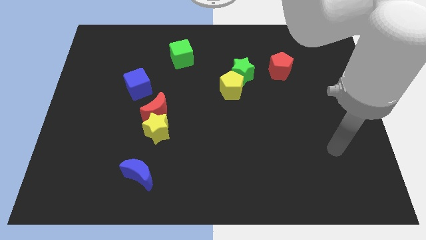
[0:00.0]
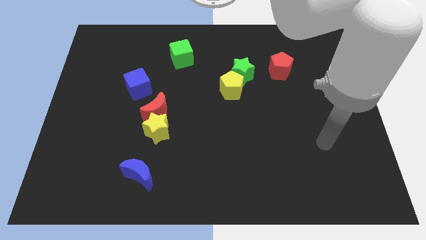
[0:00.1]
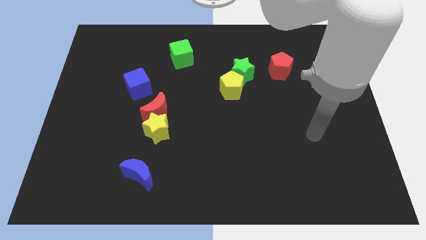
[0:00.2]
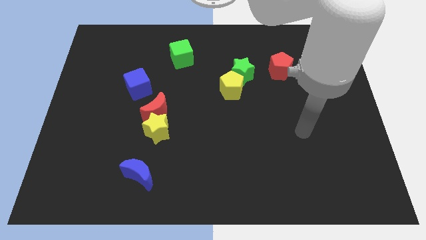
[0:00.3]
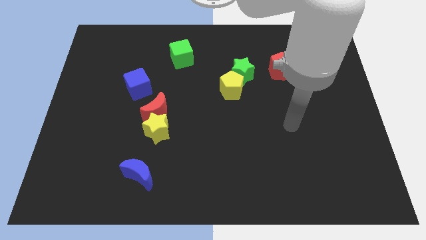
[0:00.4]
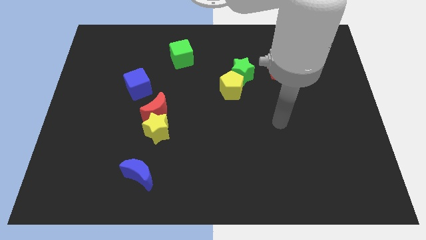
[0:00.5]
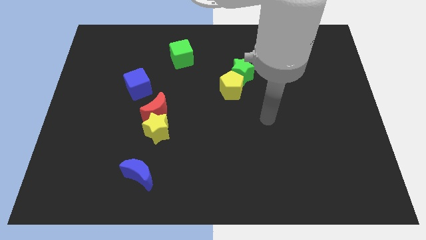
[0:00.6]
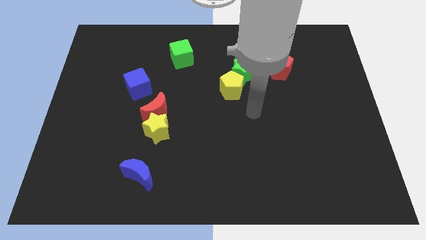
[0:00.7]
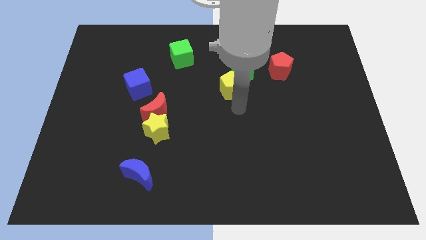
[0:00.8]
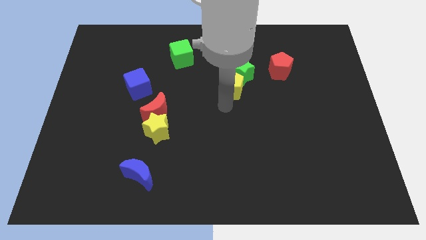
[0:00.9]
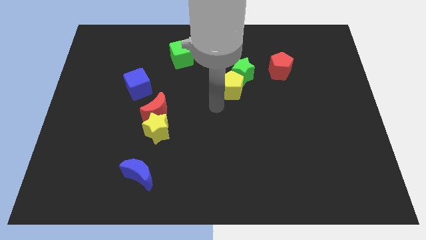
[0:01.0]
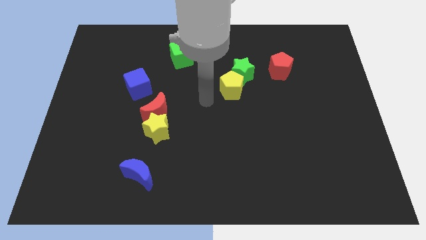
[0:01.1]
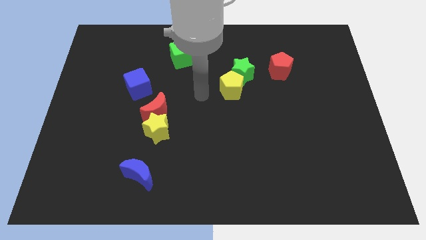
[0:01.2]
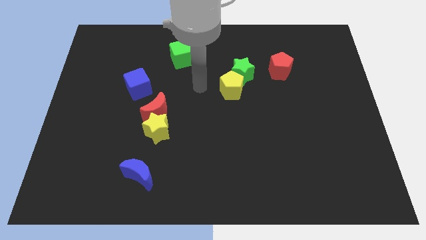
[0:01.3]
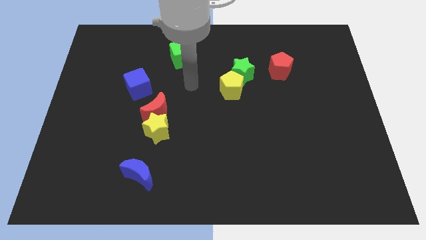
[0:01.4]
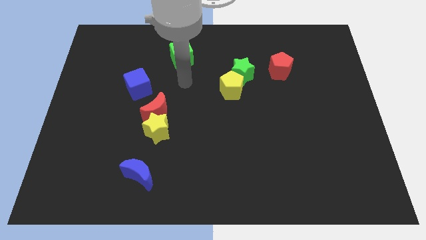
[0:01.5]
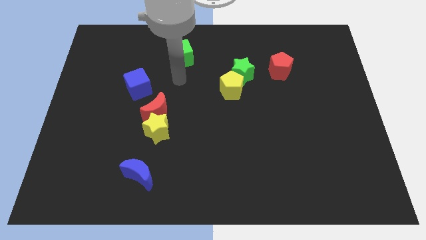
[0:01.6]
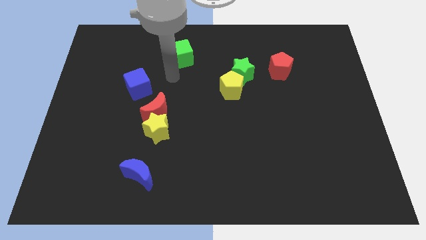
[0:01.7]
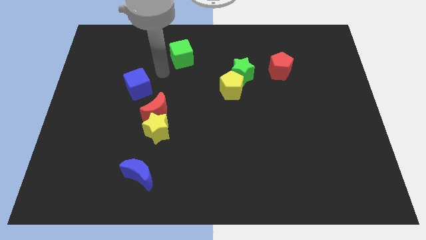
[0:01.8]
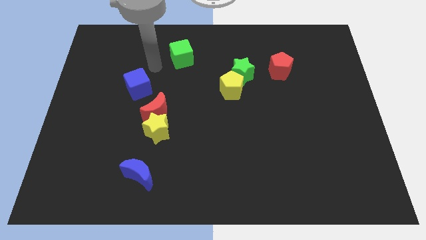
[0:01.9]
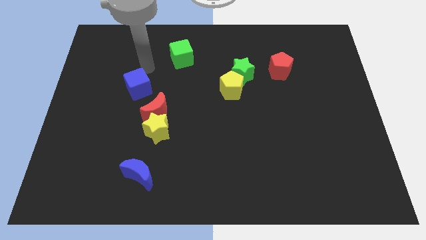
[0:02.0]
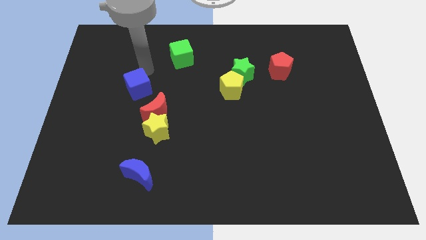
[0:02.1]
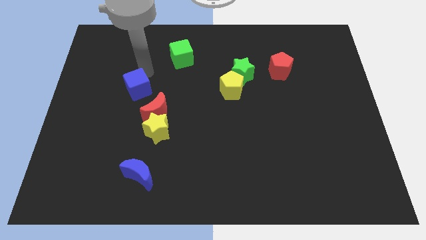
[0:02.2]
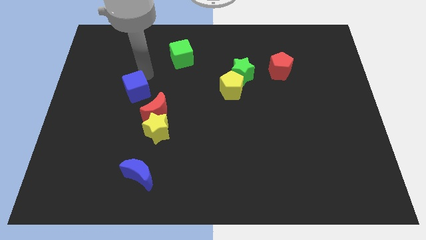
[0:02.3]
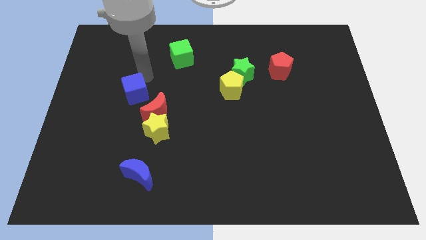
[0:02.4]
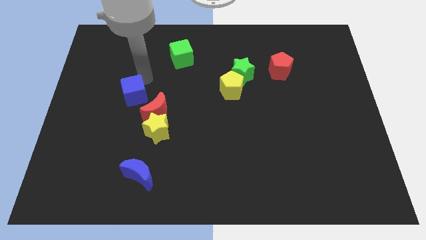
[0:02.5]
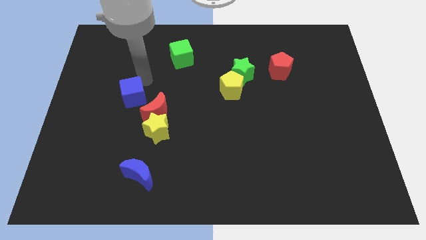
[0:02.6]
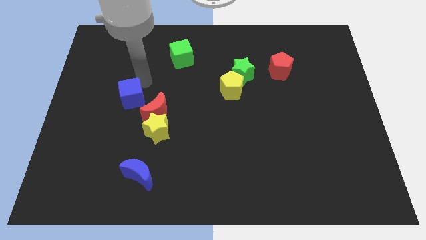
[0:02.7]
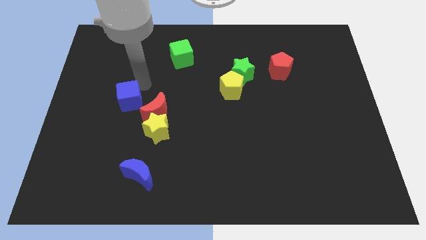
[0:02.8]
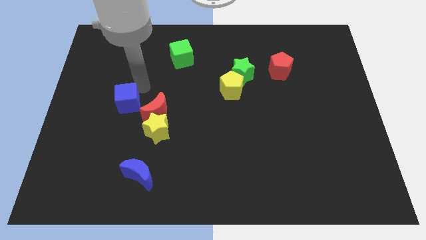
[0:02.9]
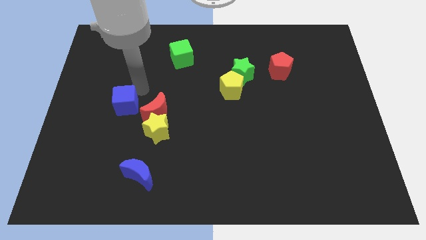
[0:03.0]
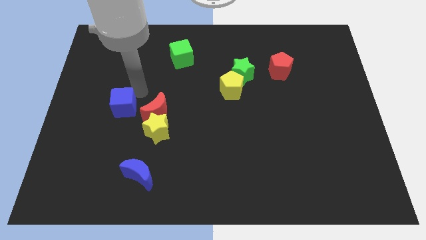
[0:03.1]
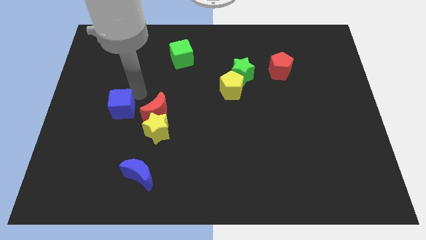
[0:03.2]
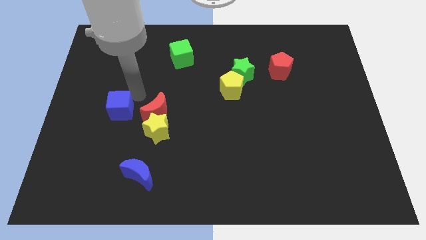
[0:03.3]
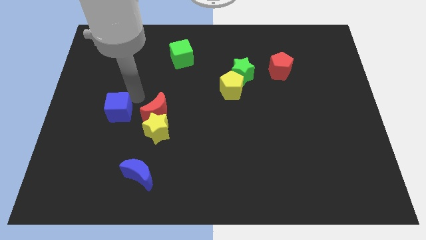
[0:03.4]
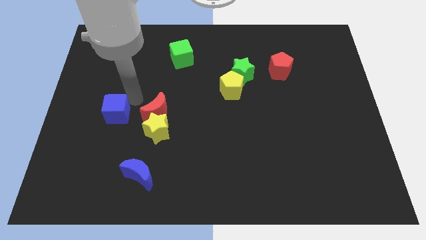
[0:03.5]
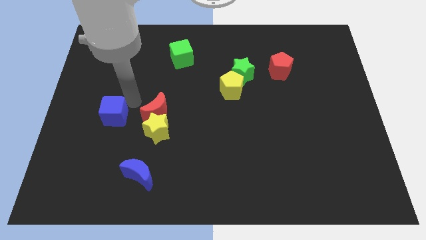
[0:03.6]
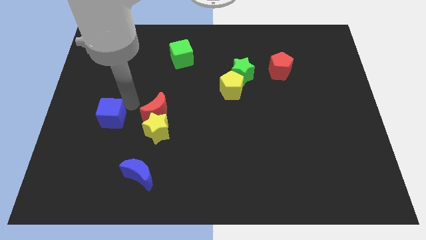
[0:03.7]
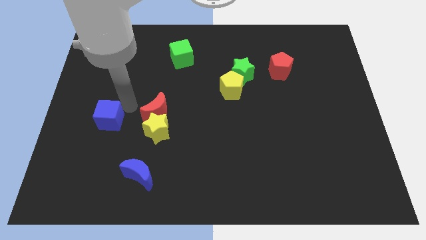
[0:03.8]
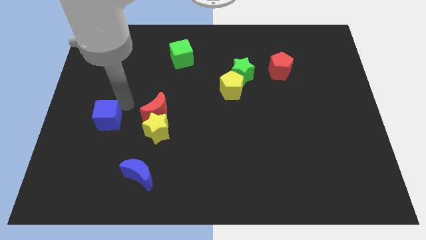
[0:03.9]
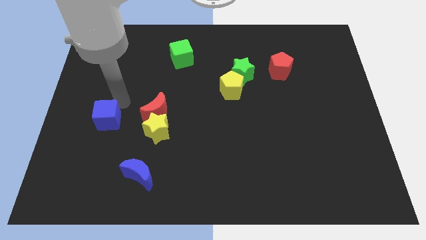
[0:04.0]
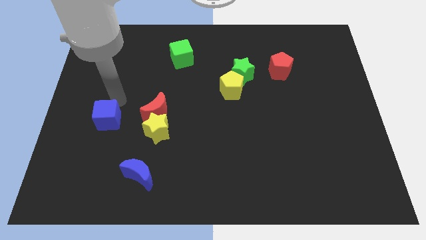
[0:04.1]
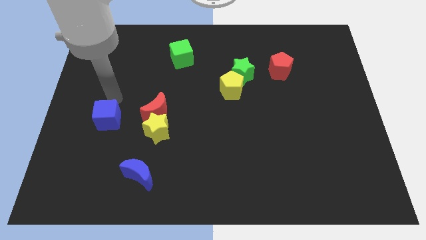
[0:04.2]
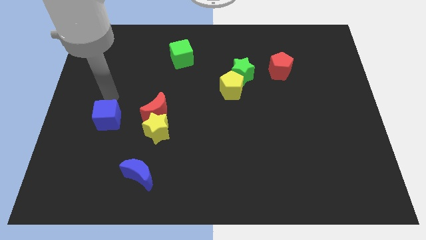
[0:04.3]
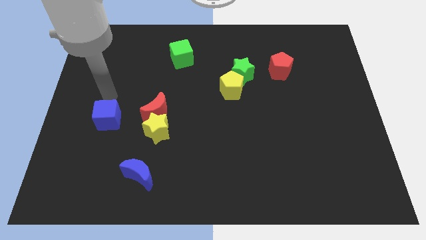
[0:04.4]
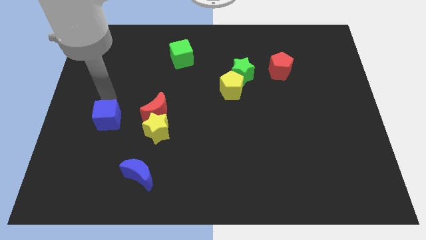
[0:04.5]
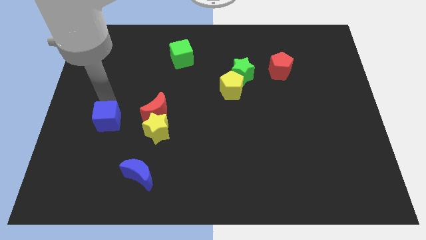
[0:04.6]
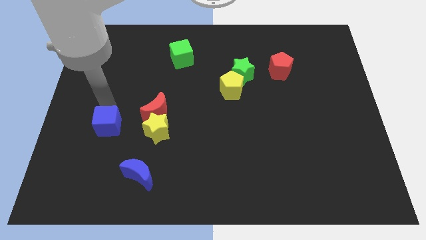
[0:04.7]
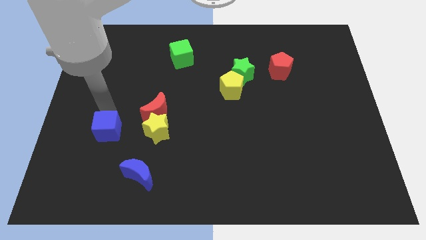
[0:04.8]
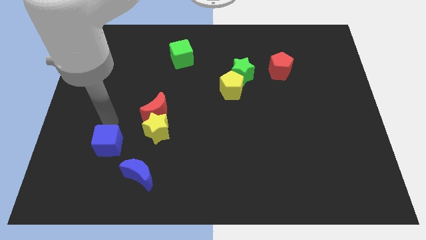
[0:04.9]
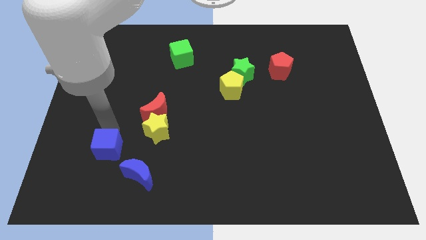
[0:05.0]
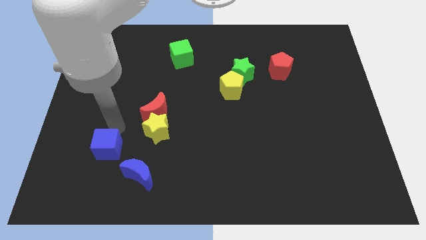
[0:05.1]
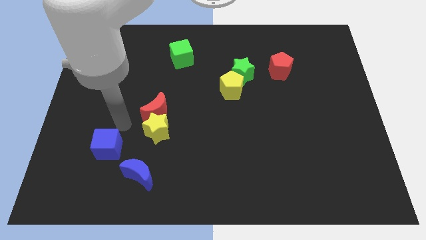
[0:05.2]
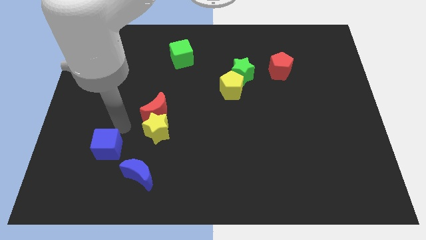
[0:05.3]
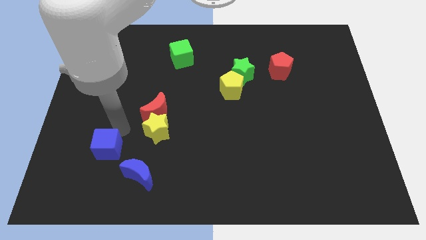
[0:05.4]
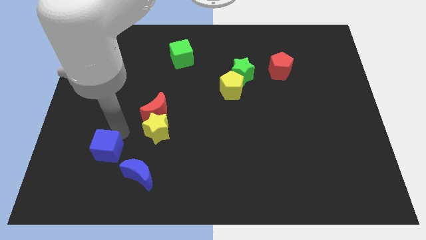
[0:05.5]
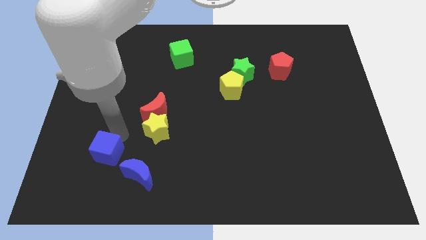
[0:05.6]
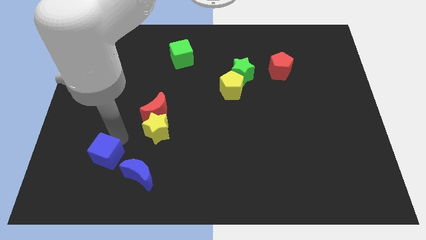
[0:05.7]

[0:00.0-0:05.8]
push the blue cube to the left of the blue moon

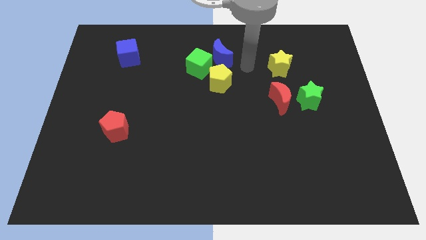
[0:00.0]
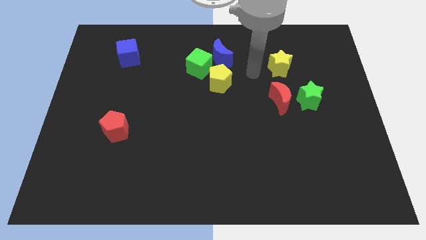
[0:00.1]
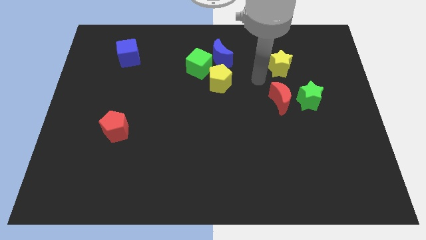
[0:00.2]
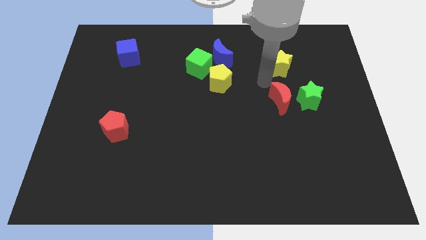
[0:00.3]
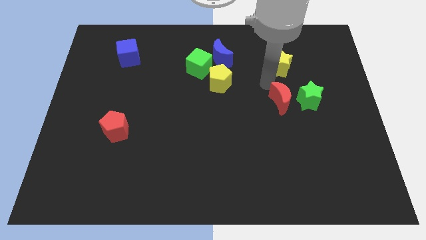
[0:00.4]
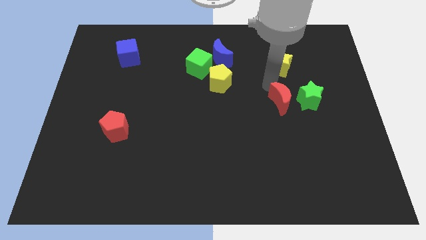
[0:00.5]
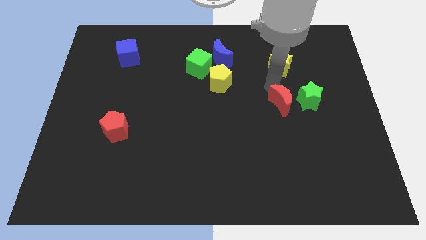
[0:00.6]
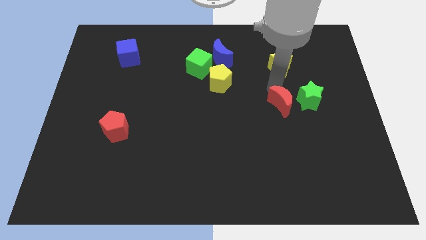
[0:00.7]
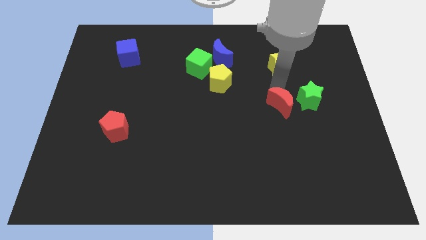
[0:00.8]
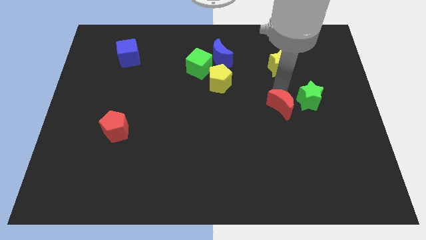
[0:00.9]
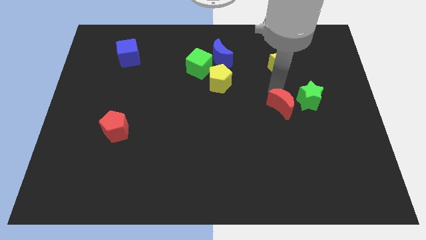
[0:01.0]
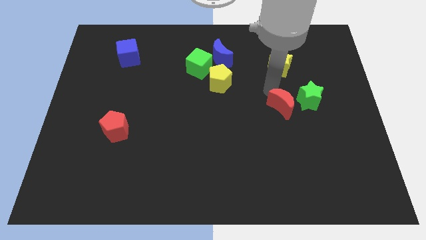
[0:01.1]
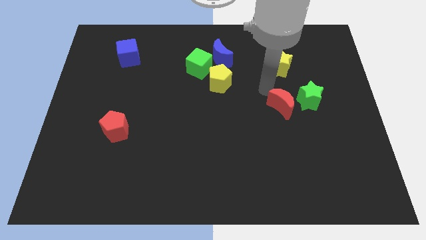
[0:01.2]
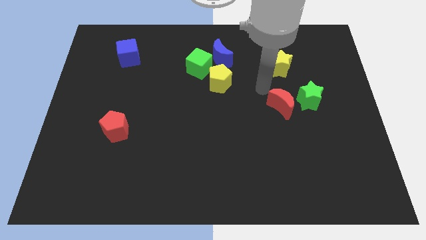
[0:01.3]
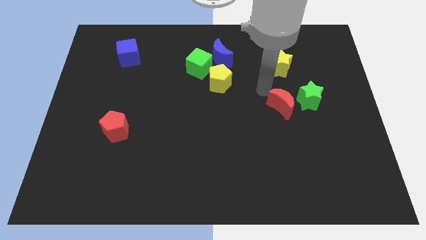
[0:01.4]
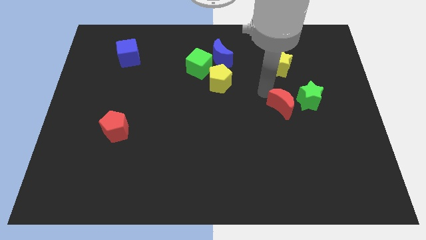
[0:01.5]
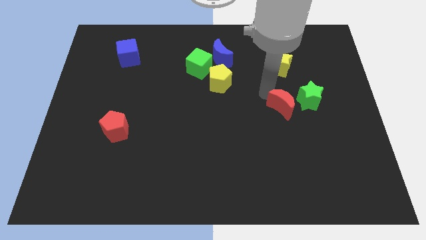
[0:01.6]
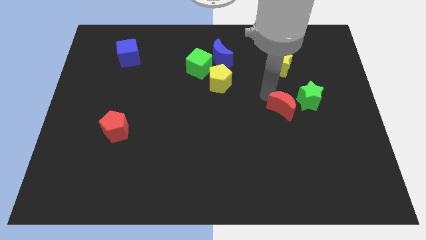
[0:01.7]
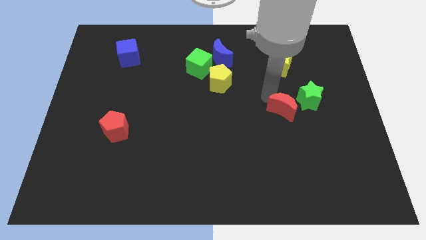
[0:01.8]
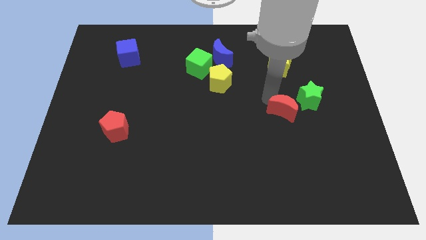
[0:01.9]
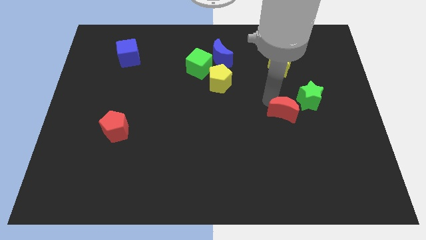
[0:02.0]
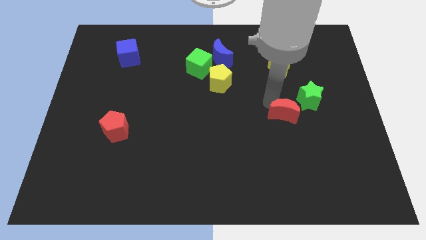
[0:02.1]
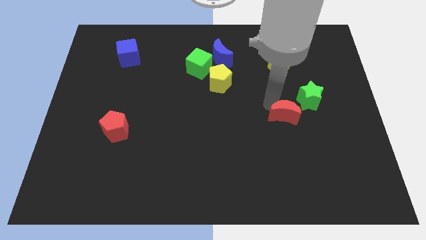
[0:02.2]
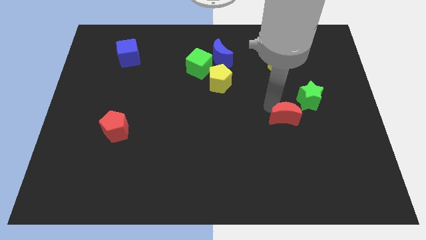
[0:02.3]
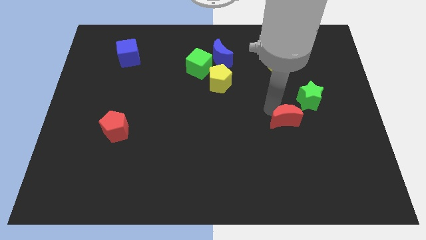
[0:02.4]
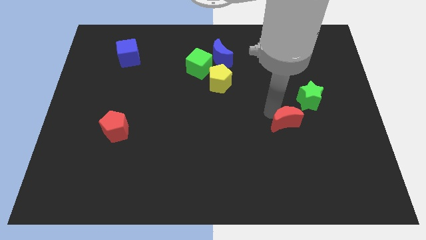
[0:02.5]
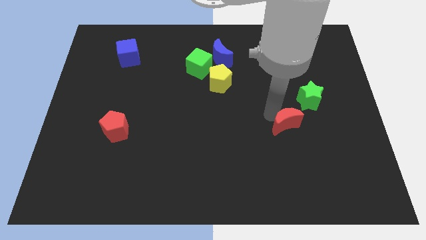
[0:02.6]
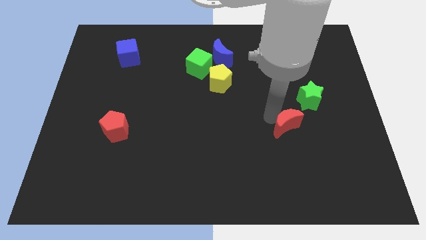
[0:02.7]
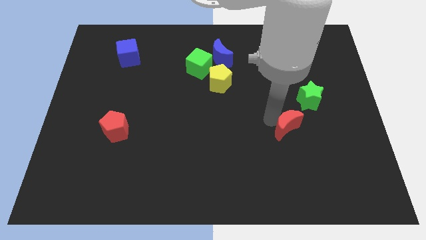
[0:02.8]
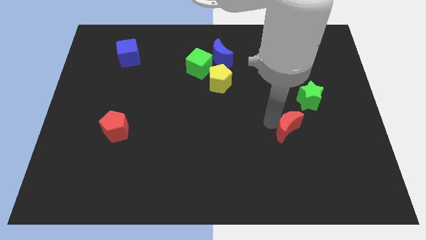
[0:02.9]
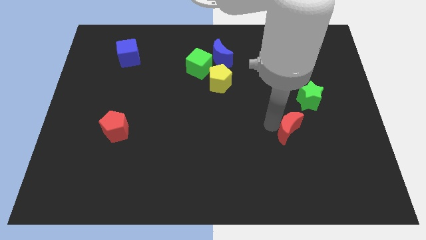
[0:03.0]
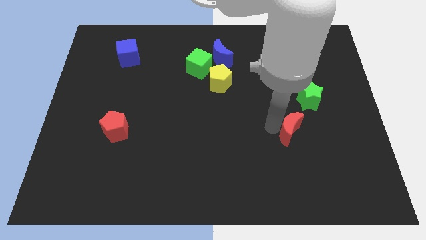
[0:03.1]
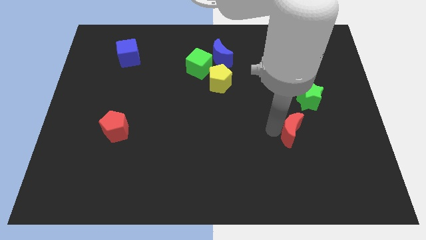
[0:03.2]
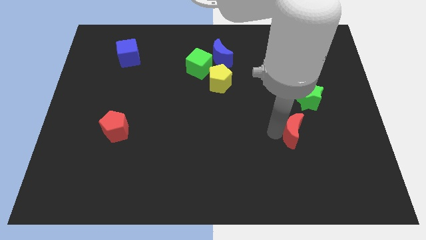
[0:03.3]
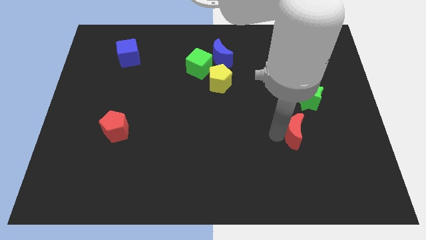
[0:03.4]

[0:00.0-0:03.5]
push the red moon to the bottom of the green star
